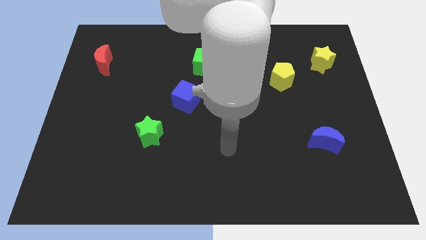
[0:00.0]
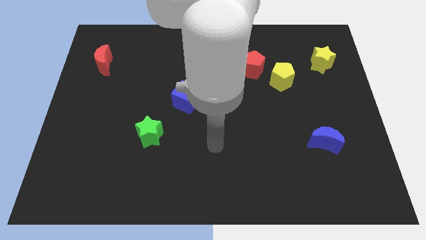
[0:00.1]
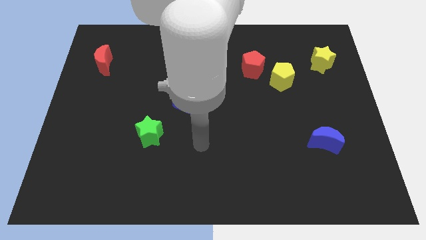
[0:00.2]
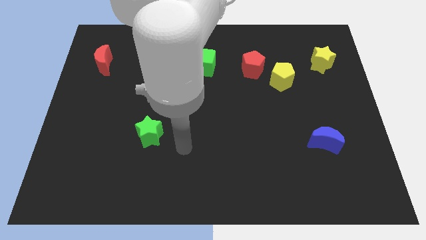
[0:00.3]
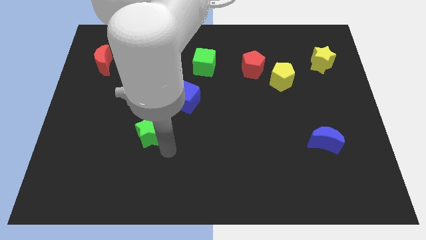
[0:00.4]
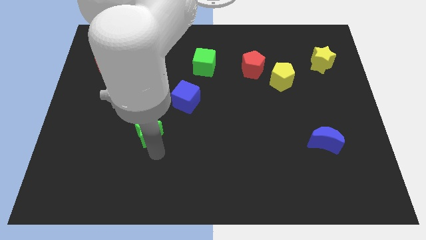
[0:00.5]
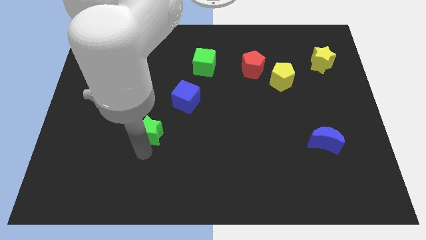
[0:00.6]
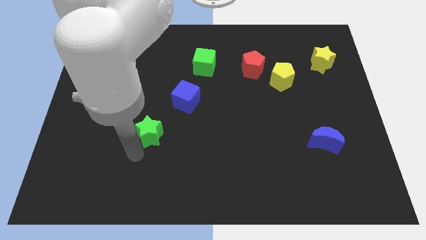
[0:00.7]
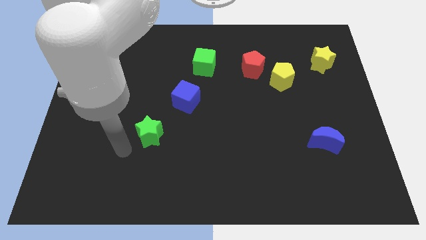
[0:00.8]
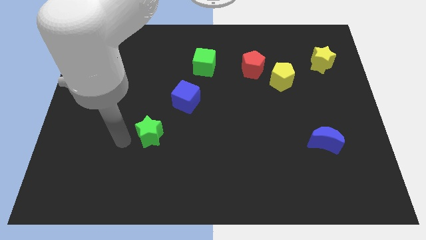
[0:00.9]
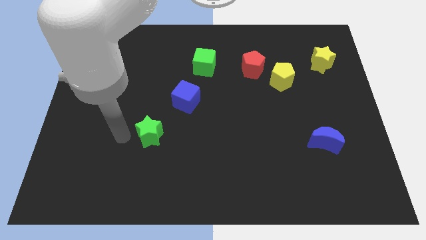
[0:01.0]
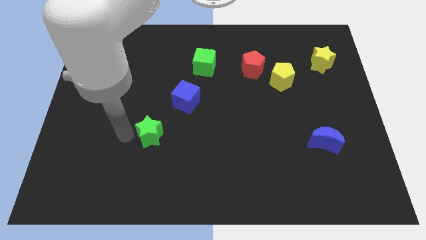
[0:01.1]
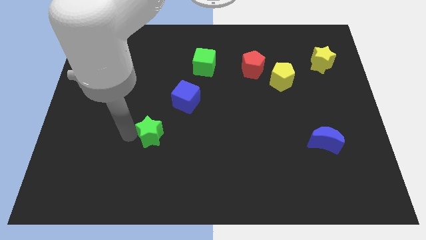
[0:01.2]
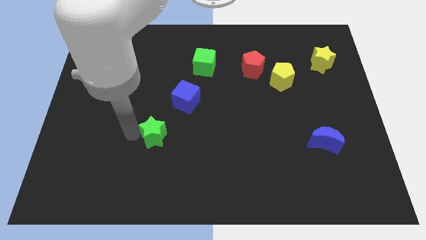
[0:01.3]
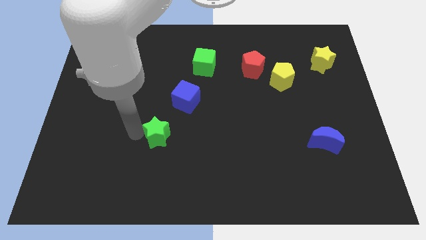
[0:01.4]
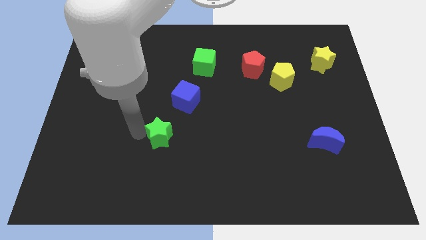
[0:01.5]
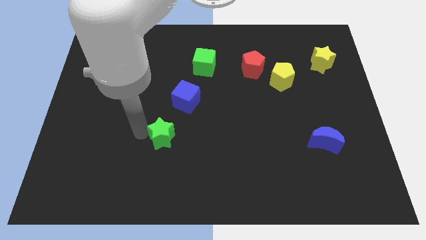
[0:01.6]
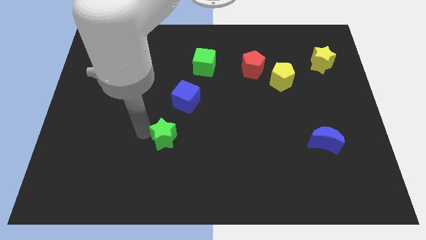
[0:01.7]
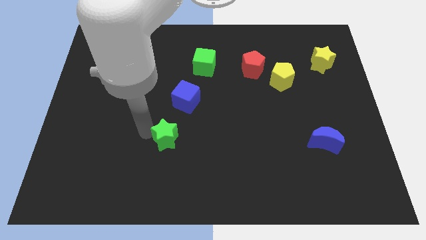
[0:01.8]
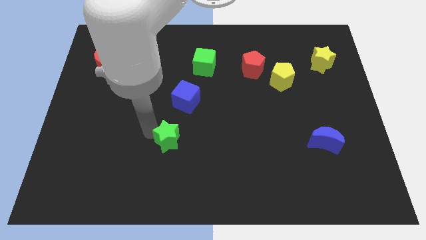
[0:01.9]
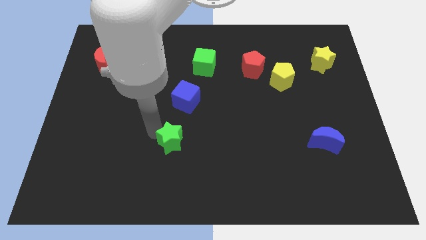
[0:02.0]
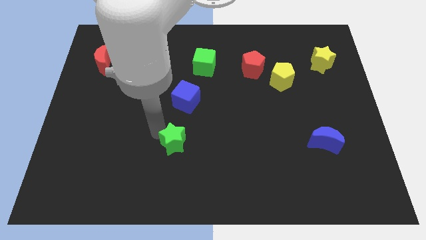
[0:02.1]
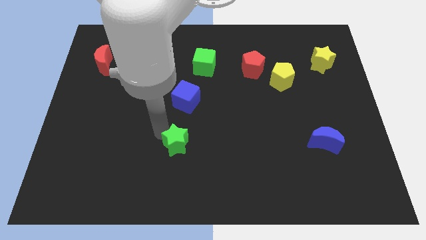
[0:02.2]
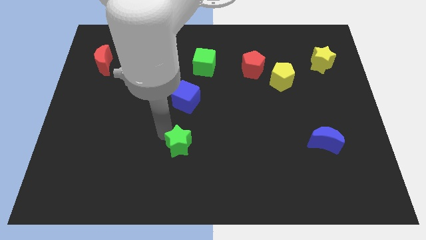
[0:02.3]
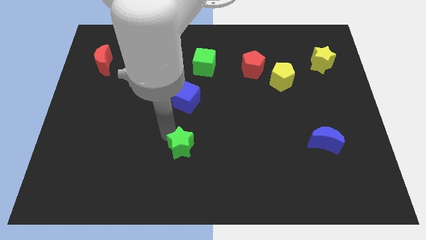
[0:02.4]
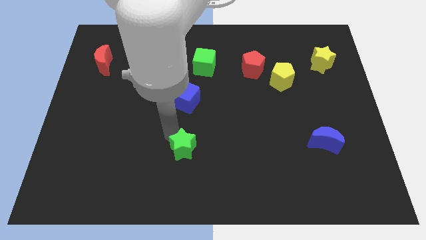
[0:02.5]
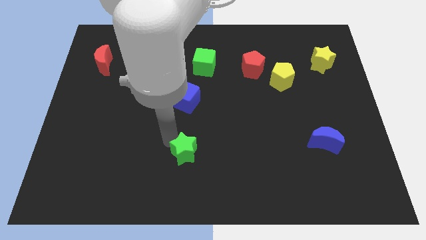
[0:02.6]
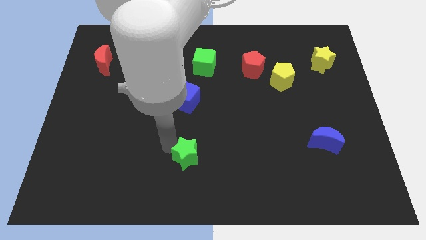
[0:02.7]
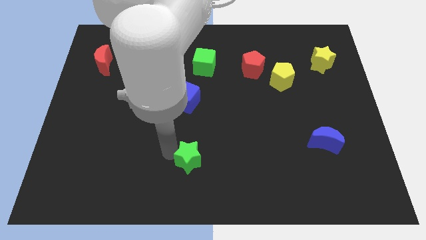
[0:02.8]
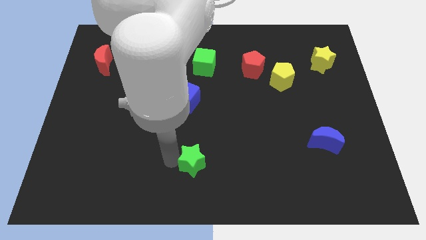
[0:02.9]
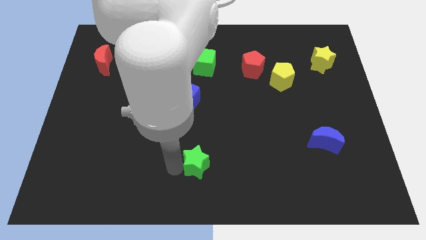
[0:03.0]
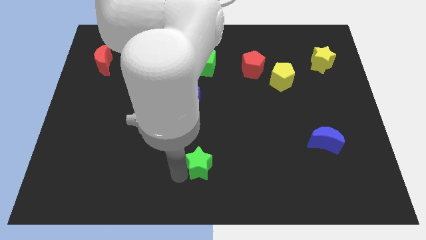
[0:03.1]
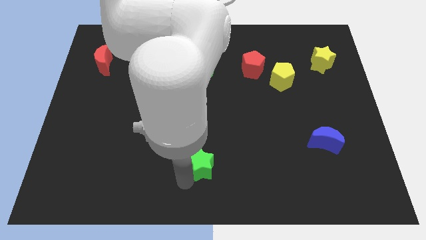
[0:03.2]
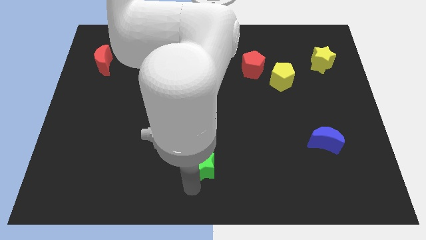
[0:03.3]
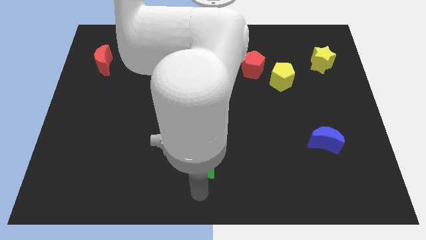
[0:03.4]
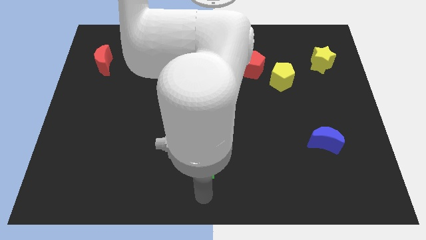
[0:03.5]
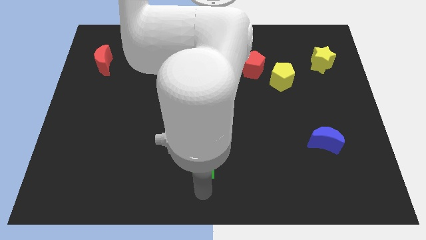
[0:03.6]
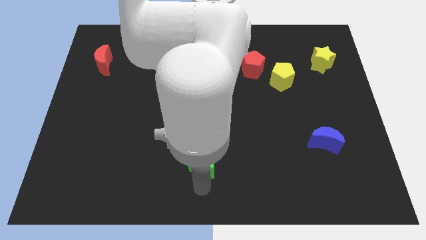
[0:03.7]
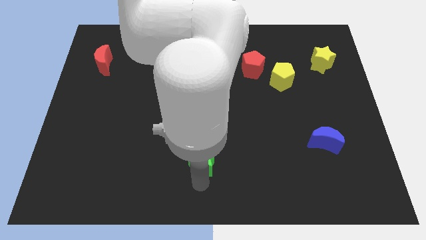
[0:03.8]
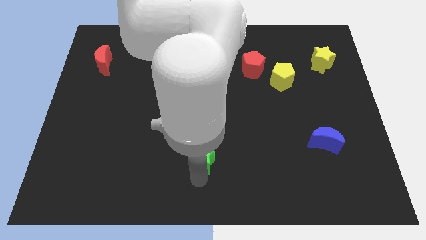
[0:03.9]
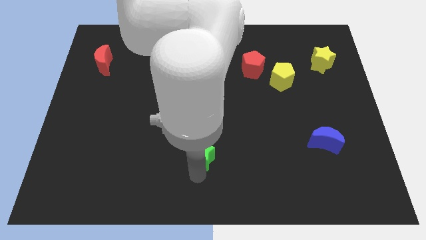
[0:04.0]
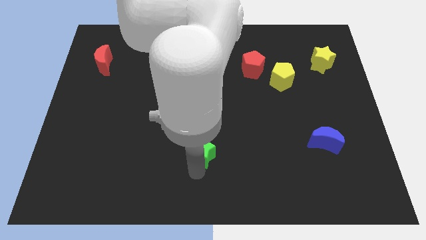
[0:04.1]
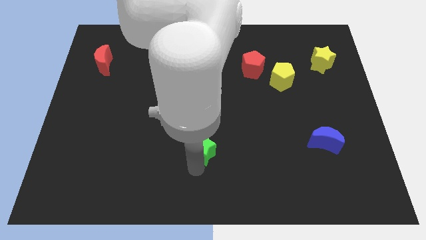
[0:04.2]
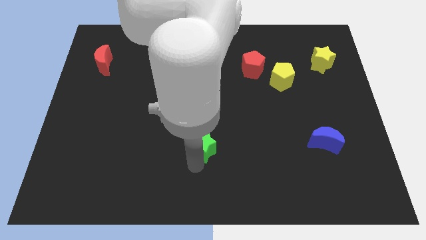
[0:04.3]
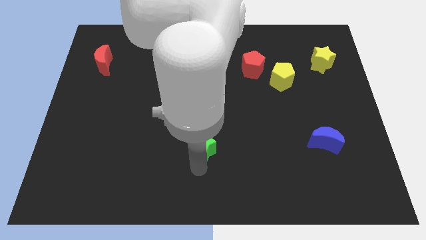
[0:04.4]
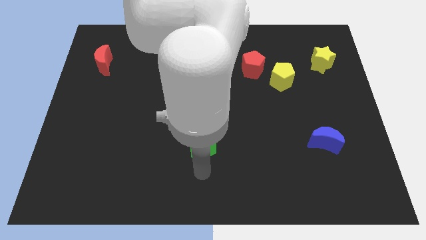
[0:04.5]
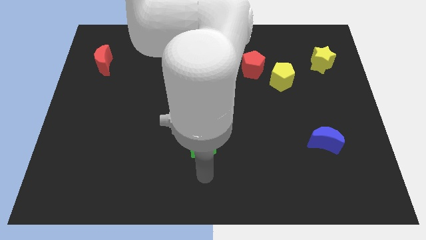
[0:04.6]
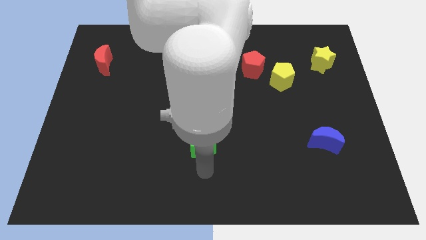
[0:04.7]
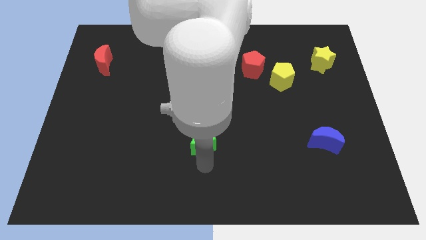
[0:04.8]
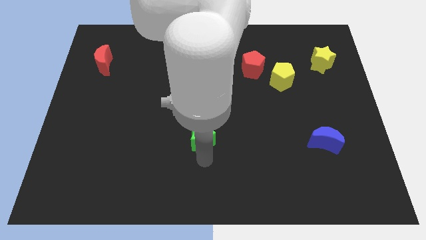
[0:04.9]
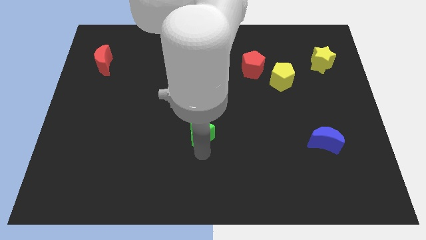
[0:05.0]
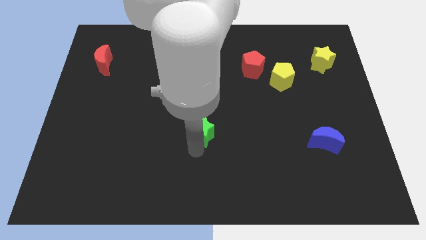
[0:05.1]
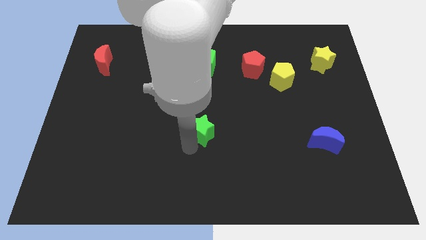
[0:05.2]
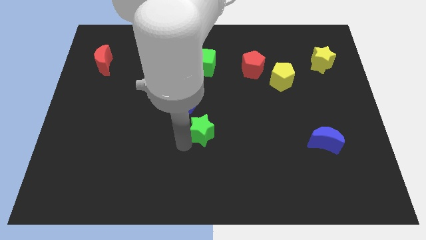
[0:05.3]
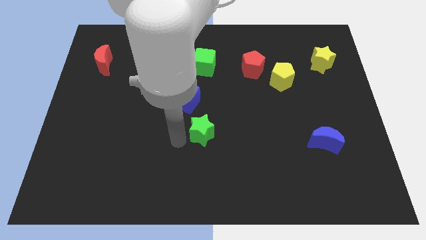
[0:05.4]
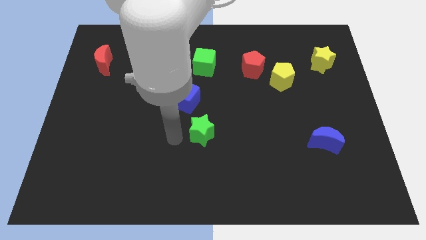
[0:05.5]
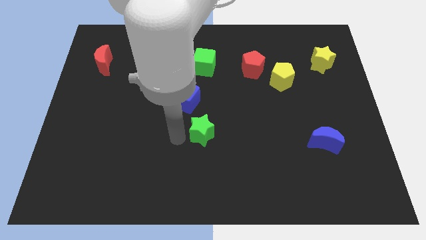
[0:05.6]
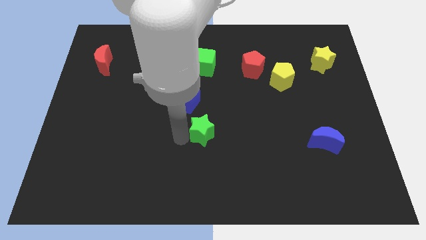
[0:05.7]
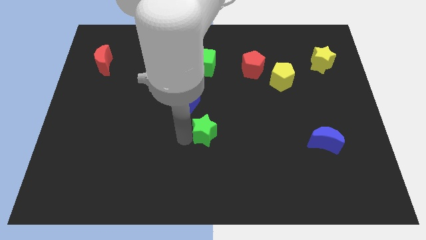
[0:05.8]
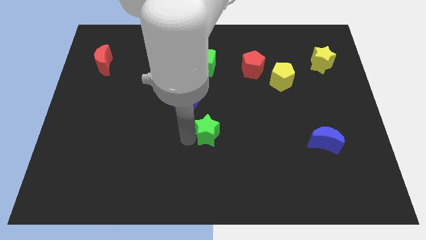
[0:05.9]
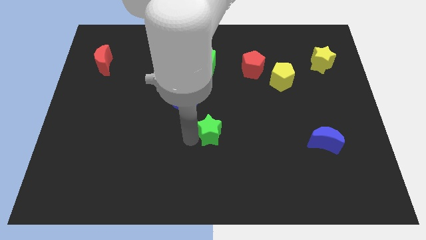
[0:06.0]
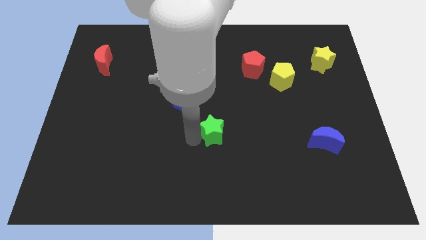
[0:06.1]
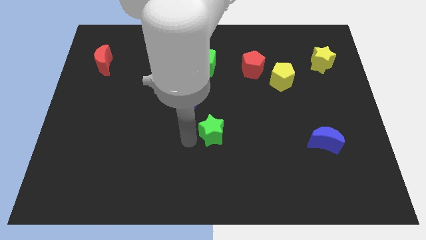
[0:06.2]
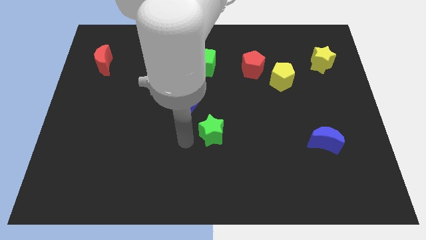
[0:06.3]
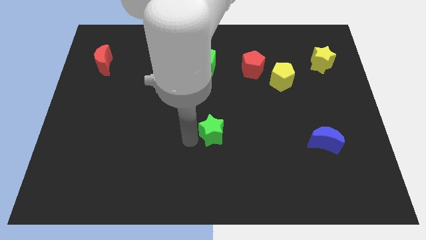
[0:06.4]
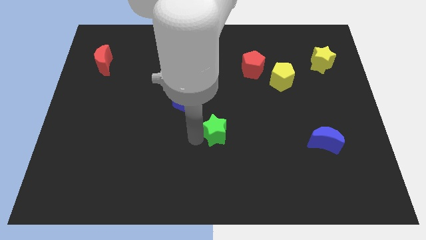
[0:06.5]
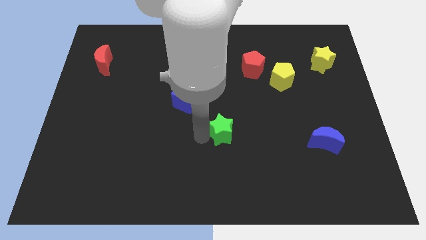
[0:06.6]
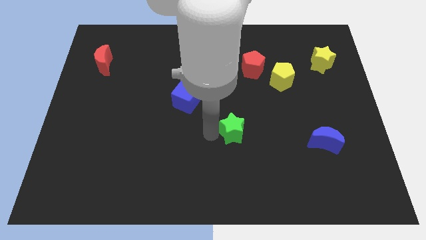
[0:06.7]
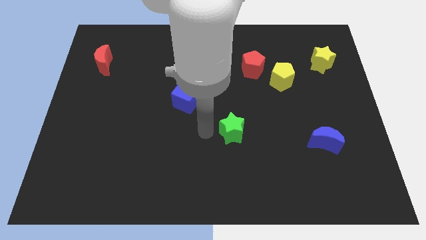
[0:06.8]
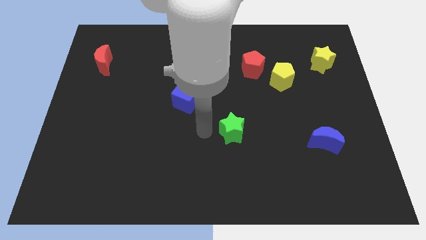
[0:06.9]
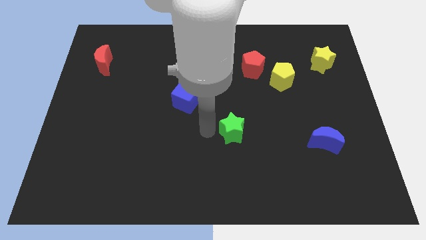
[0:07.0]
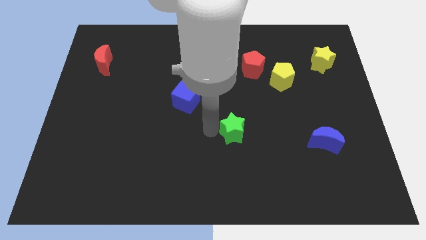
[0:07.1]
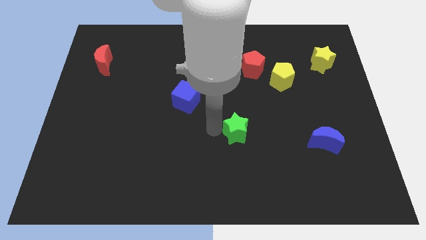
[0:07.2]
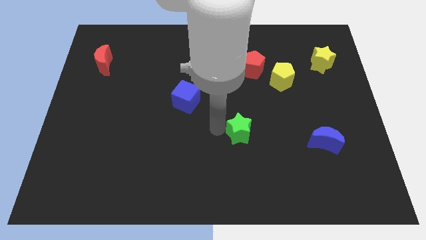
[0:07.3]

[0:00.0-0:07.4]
push the green star to the right

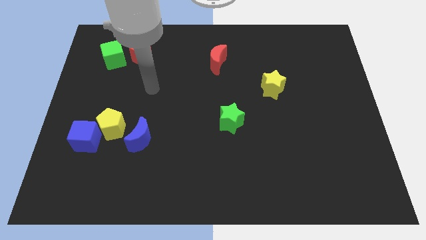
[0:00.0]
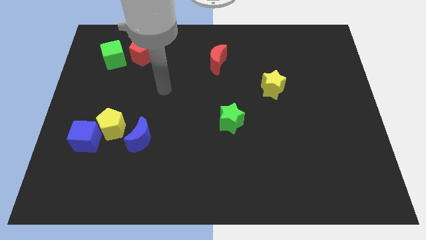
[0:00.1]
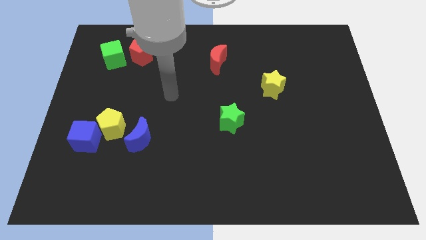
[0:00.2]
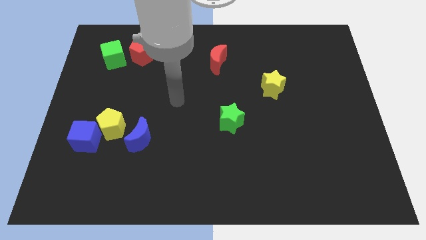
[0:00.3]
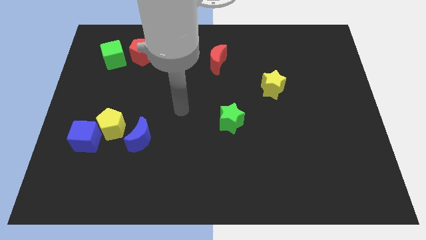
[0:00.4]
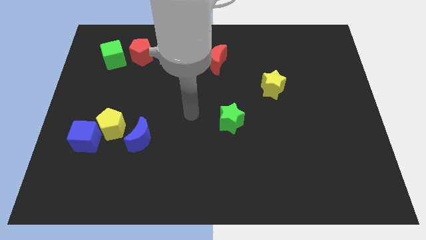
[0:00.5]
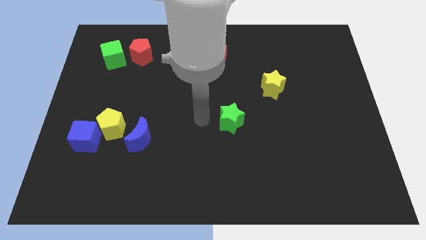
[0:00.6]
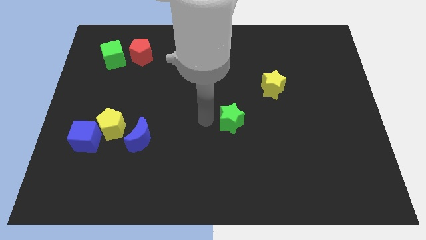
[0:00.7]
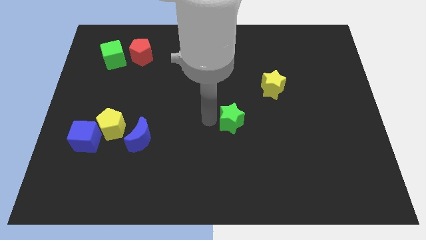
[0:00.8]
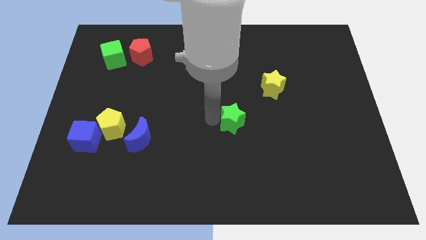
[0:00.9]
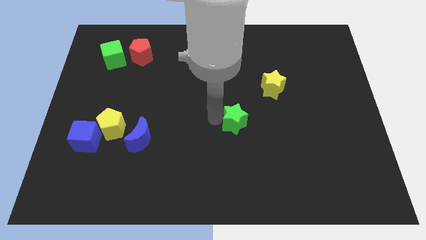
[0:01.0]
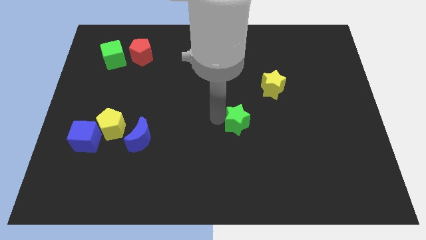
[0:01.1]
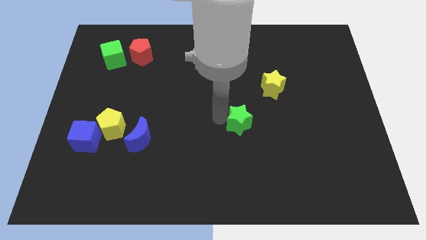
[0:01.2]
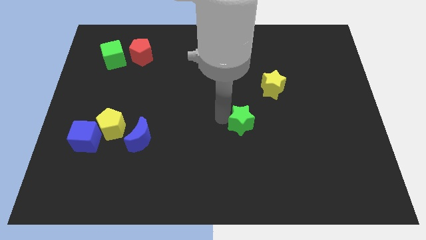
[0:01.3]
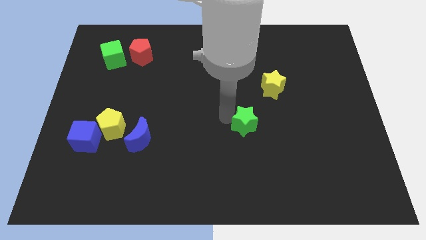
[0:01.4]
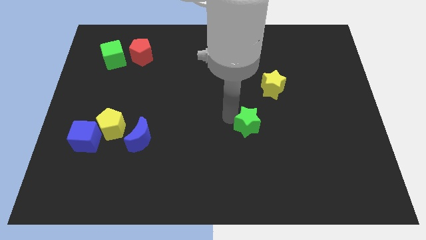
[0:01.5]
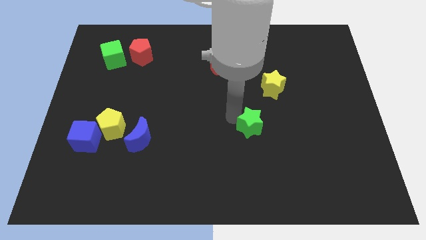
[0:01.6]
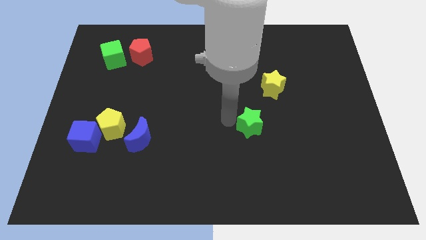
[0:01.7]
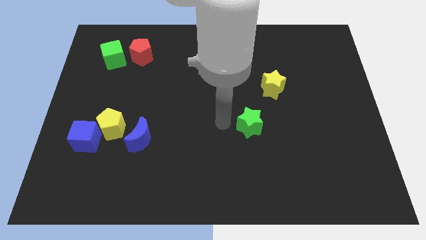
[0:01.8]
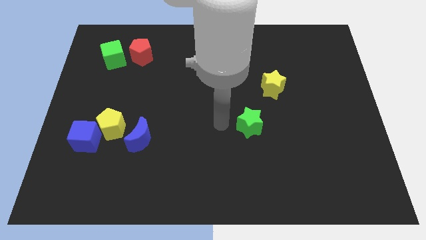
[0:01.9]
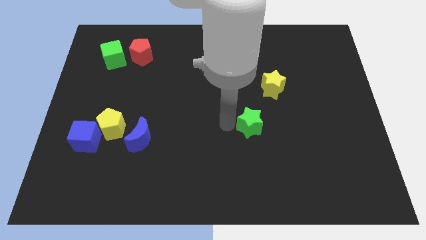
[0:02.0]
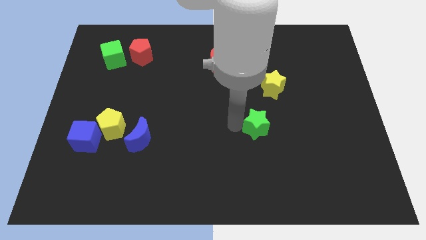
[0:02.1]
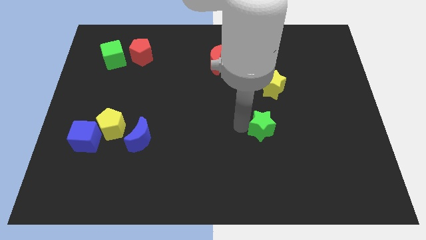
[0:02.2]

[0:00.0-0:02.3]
slightly push the green star right
